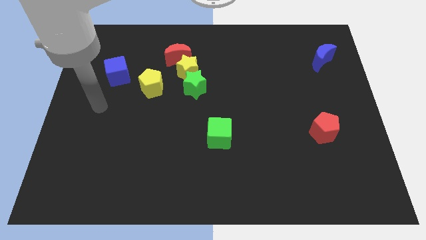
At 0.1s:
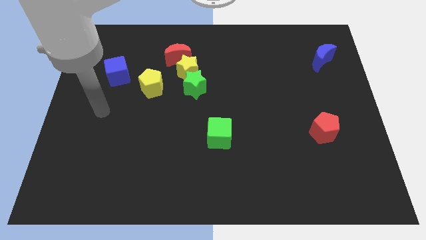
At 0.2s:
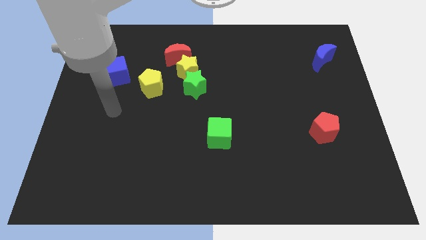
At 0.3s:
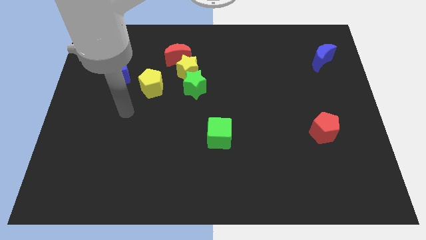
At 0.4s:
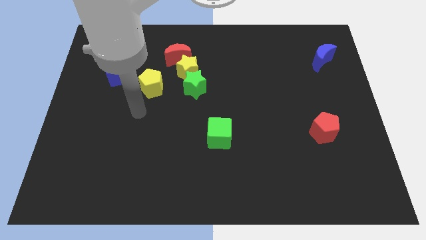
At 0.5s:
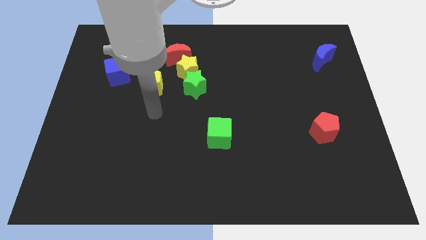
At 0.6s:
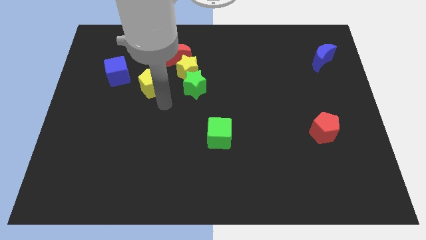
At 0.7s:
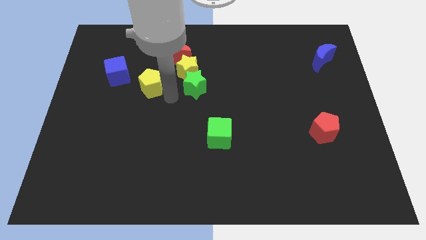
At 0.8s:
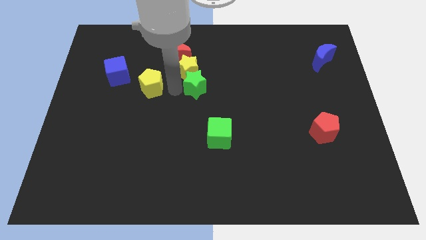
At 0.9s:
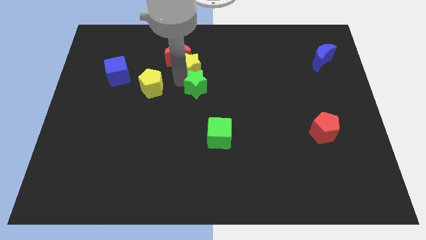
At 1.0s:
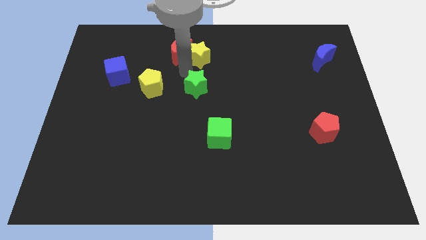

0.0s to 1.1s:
pull the green star apart from the yellow star

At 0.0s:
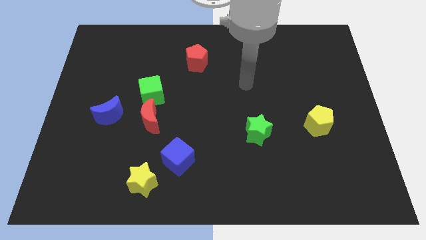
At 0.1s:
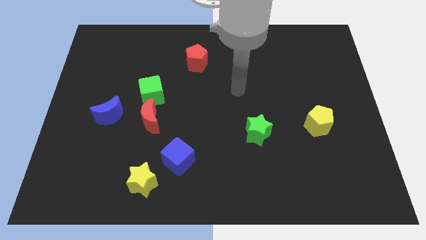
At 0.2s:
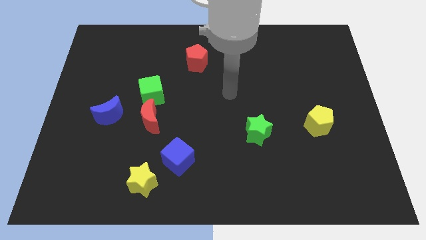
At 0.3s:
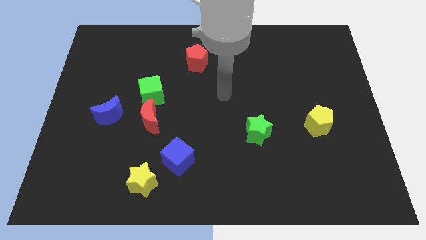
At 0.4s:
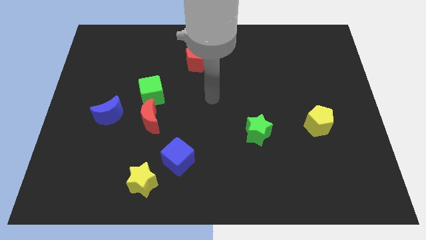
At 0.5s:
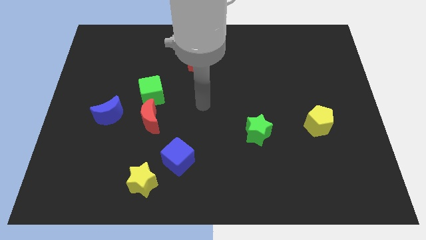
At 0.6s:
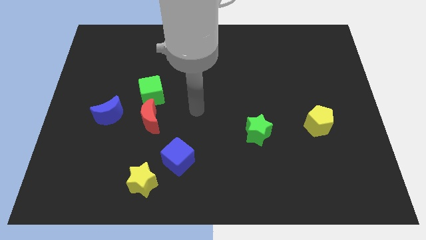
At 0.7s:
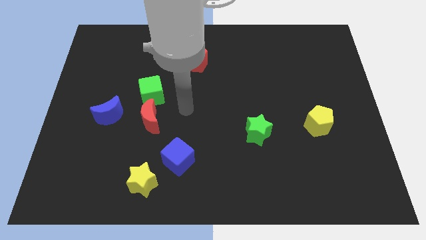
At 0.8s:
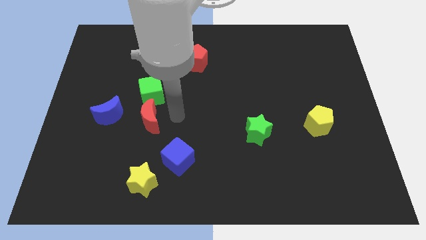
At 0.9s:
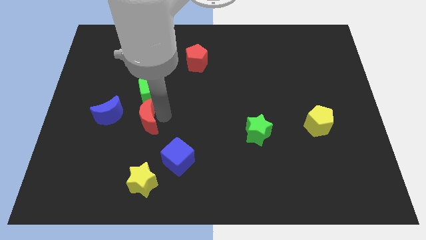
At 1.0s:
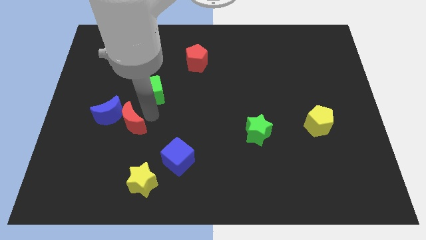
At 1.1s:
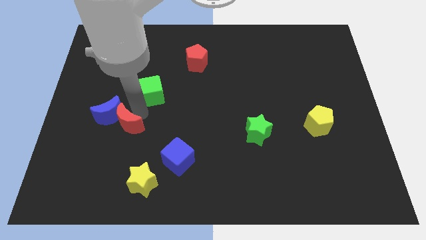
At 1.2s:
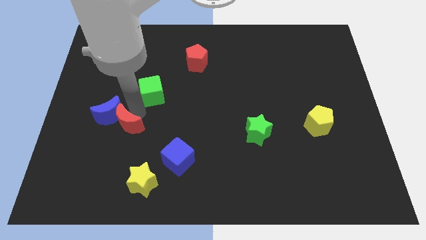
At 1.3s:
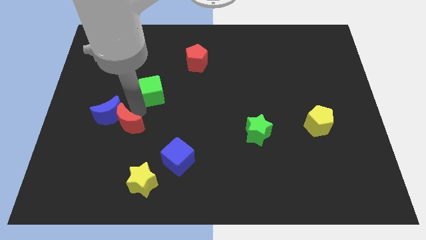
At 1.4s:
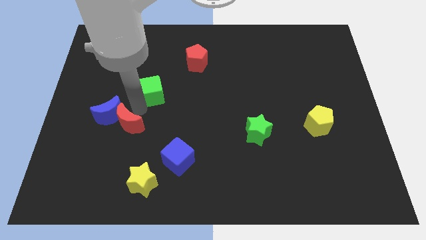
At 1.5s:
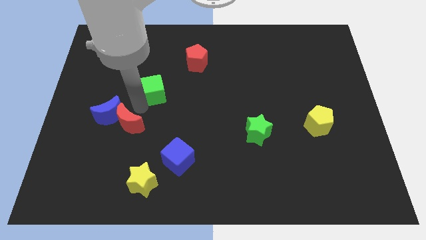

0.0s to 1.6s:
move the green cube away from the red moon

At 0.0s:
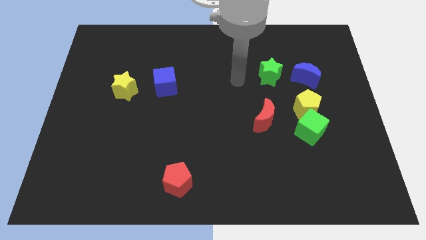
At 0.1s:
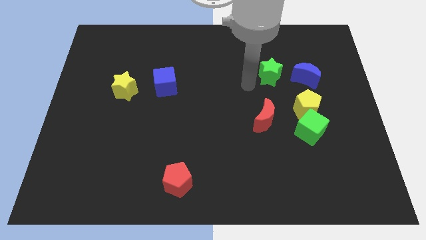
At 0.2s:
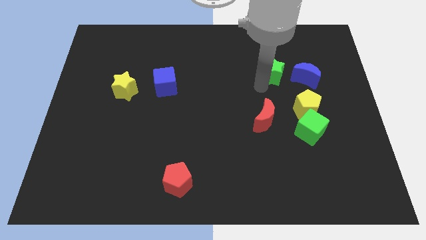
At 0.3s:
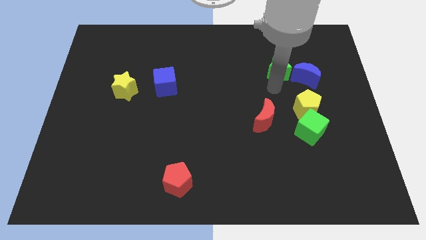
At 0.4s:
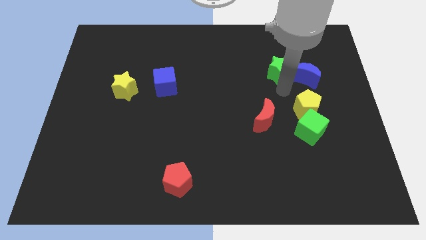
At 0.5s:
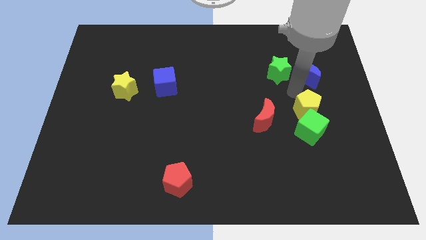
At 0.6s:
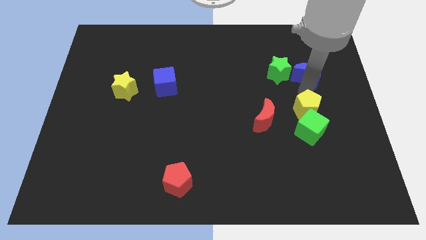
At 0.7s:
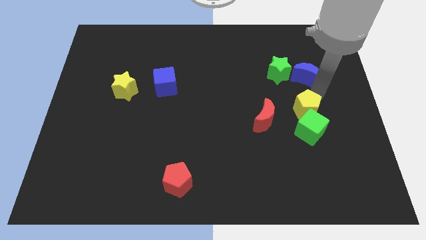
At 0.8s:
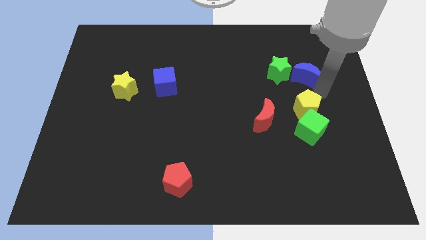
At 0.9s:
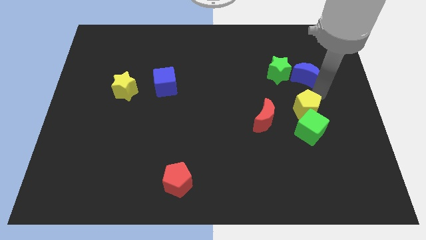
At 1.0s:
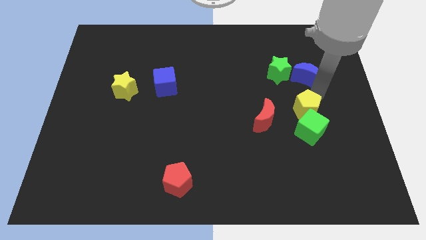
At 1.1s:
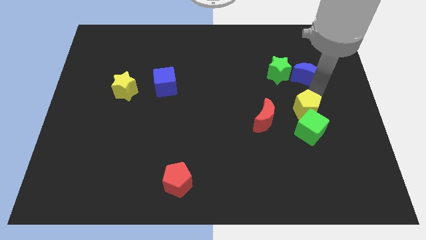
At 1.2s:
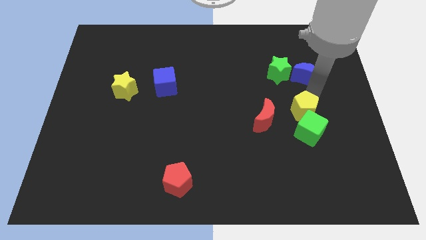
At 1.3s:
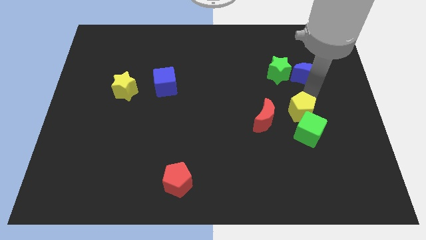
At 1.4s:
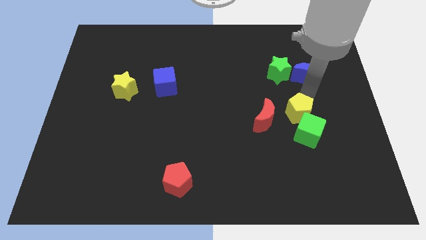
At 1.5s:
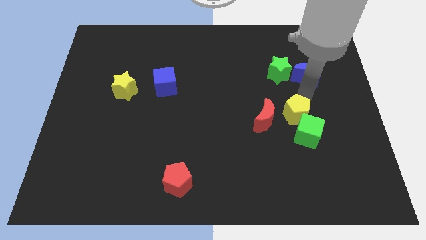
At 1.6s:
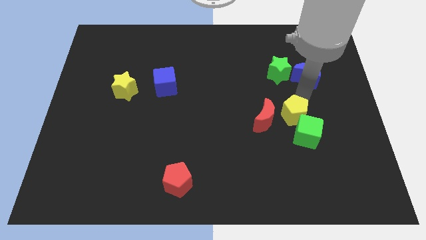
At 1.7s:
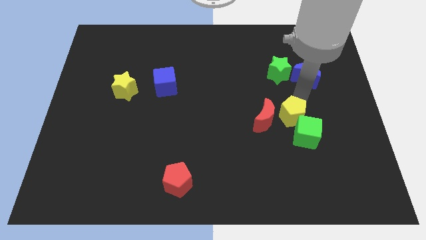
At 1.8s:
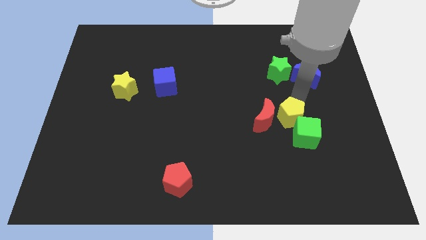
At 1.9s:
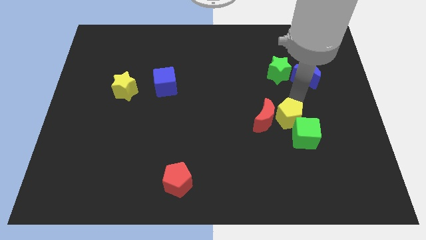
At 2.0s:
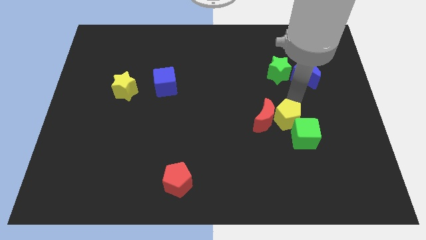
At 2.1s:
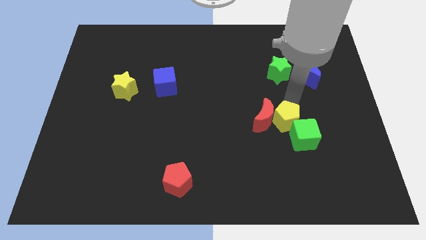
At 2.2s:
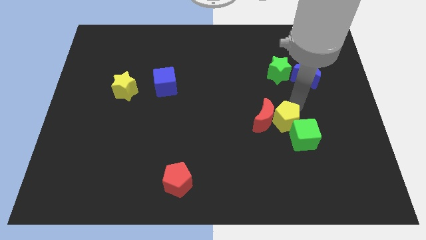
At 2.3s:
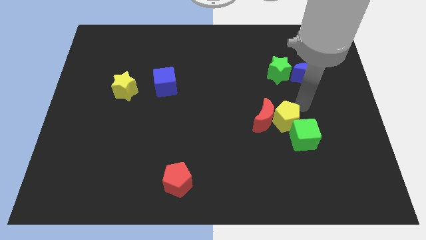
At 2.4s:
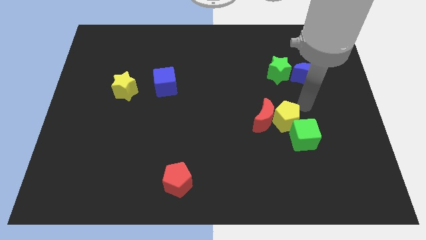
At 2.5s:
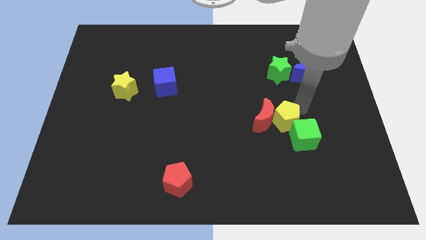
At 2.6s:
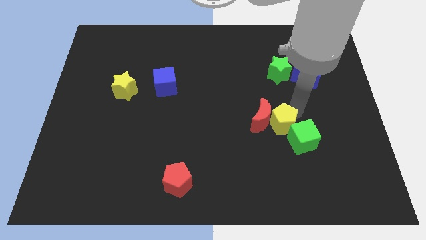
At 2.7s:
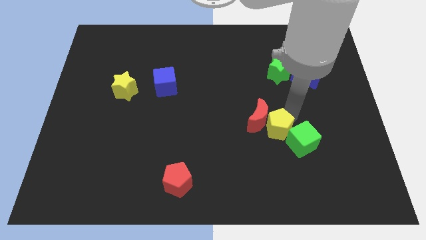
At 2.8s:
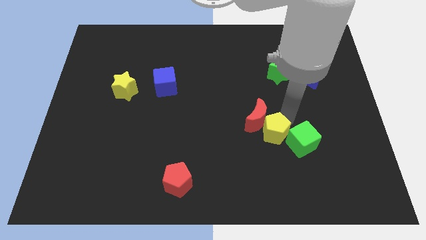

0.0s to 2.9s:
separate the yellow pentagon from the green cube and blue moon

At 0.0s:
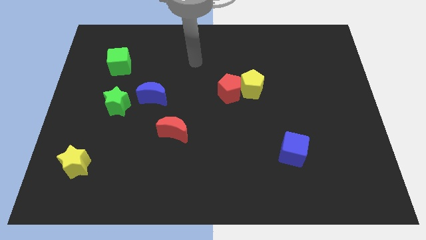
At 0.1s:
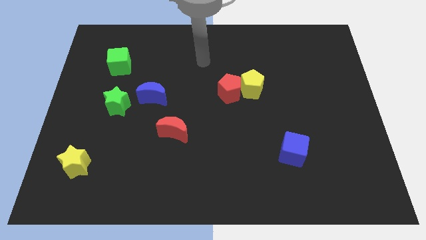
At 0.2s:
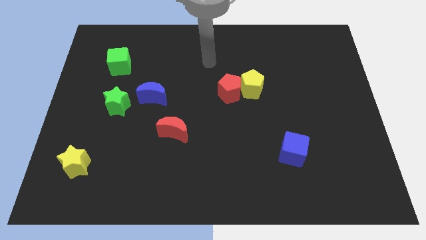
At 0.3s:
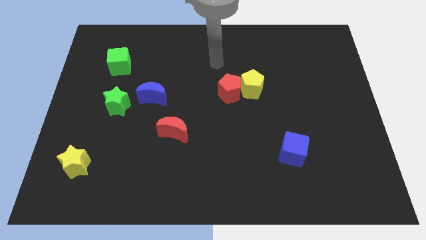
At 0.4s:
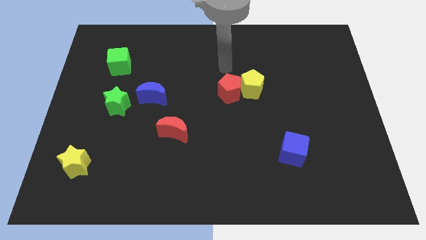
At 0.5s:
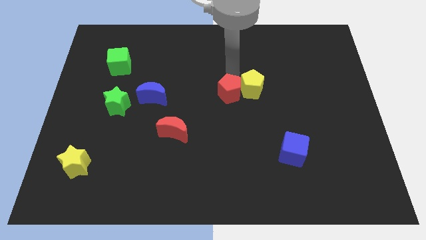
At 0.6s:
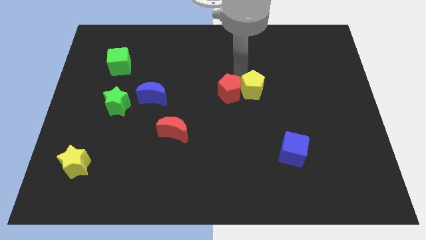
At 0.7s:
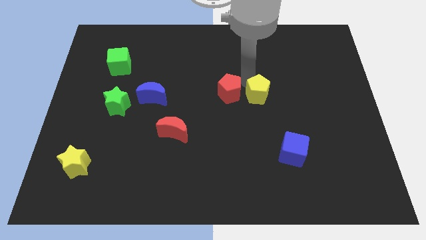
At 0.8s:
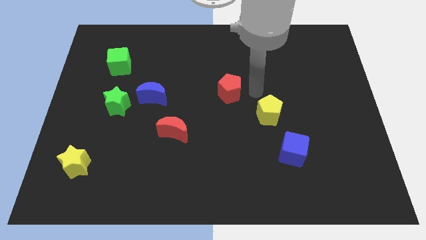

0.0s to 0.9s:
move the red pentagon away from the yellow pentagon

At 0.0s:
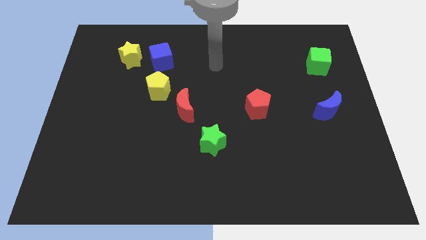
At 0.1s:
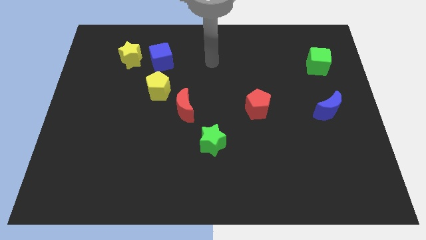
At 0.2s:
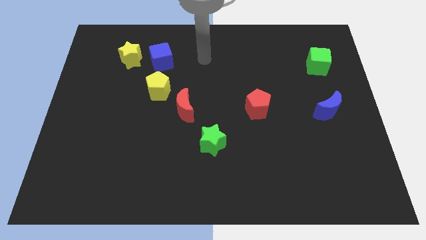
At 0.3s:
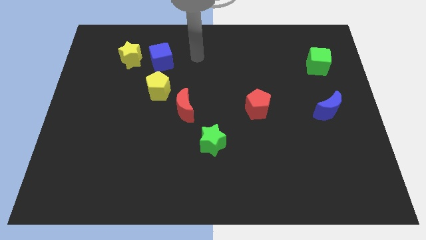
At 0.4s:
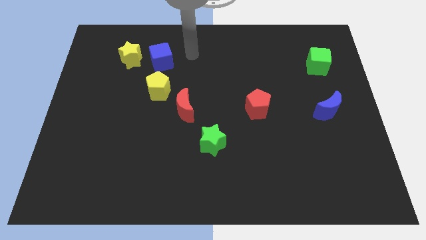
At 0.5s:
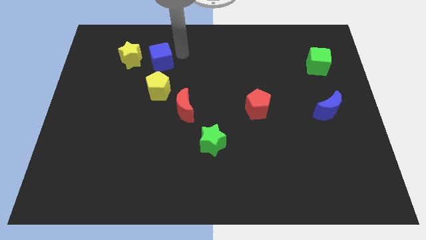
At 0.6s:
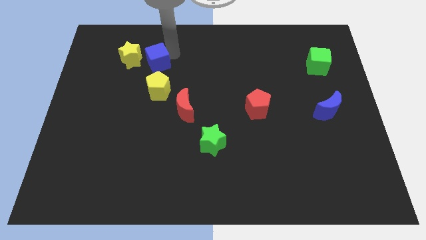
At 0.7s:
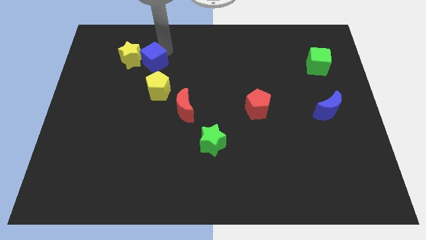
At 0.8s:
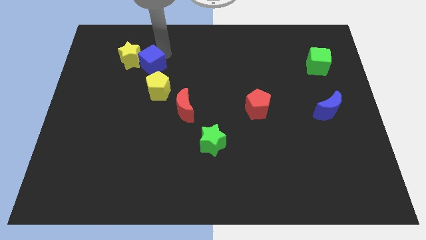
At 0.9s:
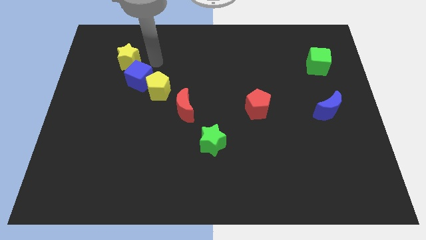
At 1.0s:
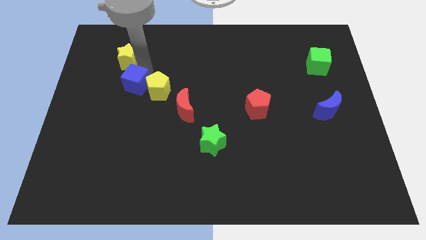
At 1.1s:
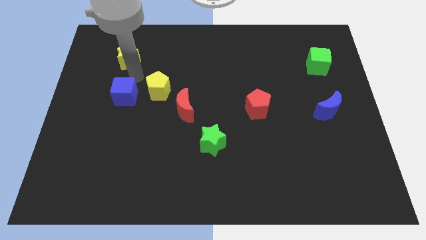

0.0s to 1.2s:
pull the yellow star apart from the blue cube

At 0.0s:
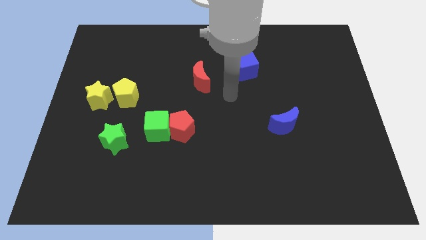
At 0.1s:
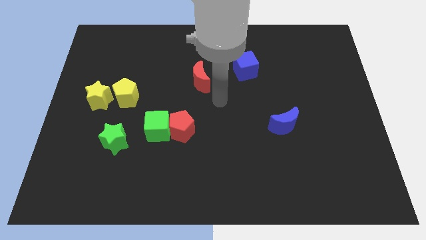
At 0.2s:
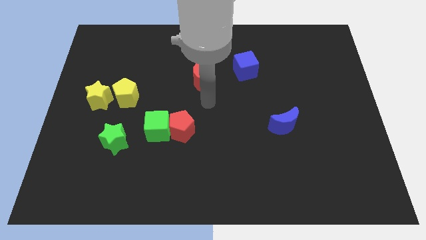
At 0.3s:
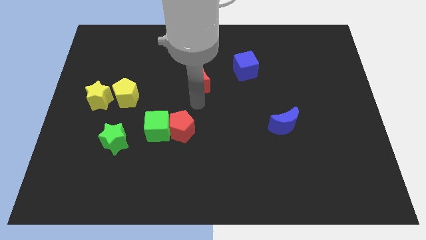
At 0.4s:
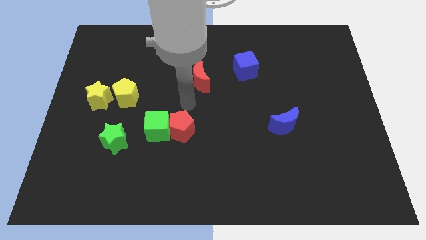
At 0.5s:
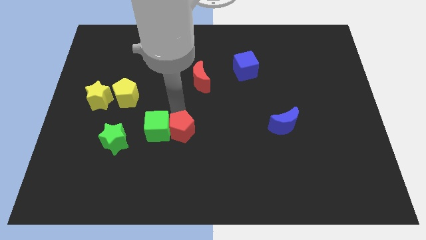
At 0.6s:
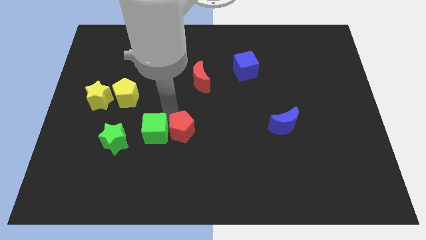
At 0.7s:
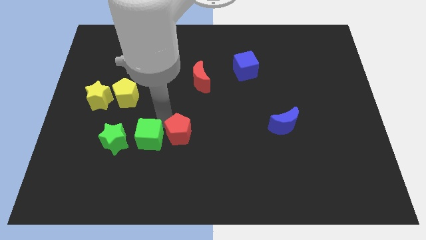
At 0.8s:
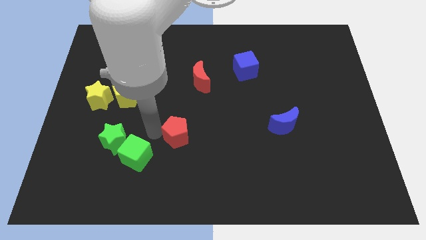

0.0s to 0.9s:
pull the red pentagon apart from the green cube

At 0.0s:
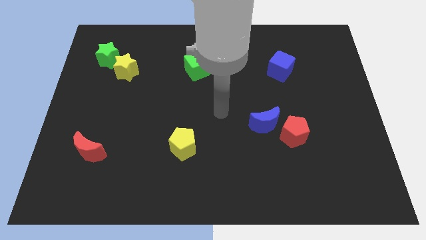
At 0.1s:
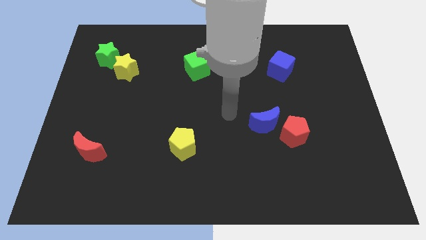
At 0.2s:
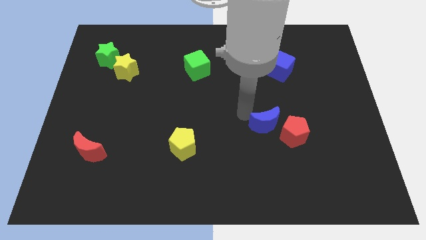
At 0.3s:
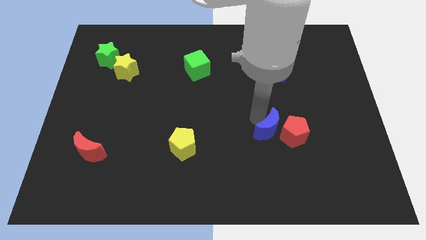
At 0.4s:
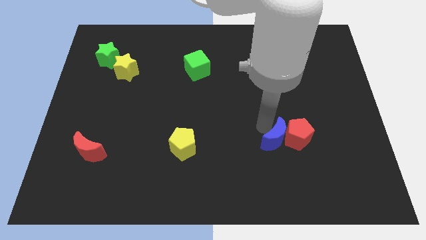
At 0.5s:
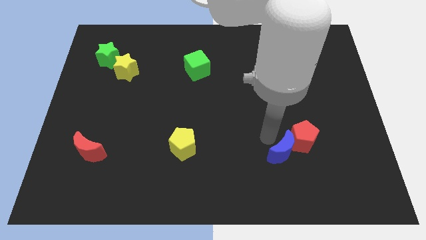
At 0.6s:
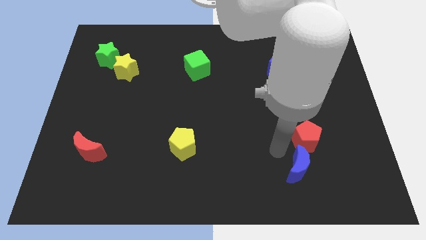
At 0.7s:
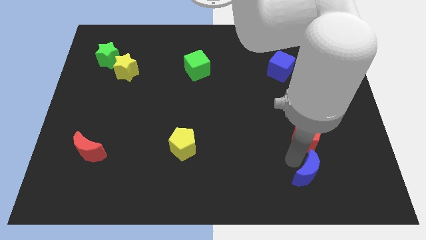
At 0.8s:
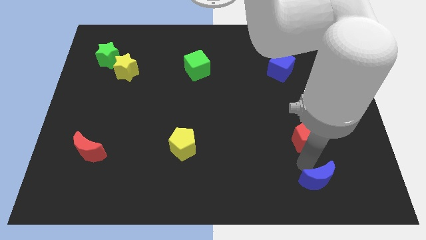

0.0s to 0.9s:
separate the red pentagon from the blue moon
